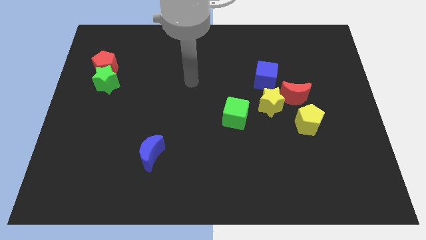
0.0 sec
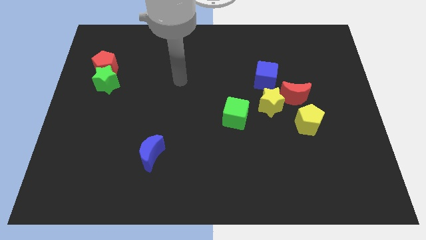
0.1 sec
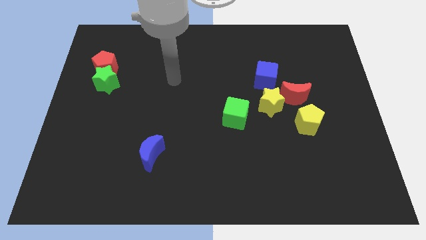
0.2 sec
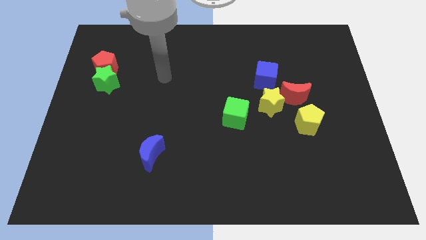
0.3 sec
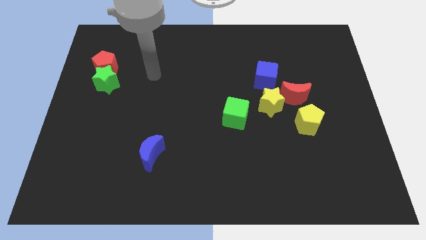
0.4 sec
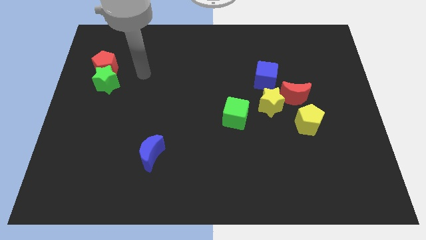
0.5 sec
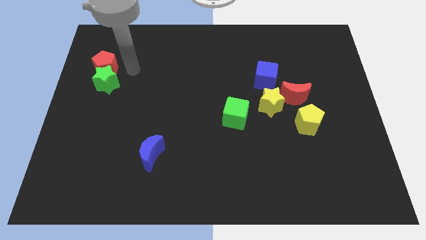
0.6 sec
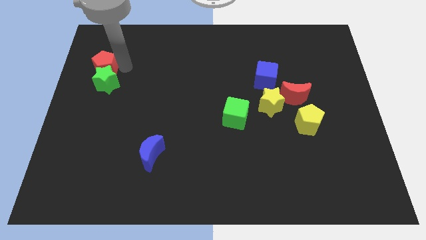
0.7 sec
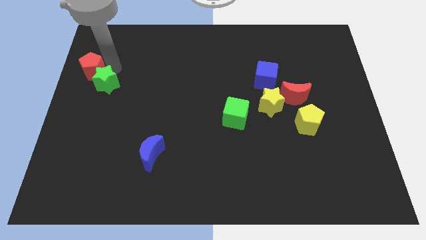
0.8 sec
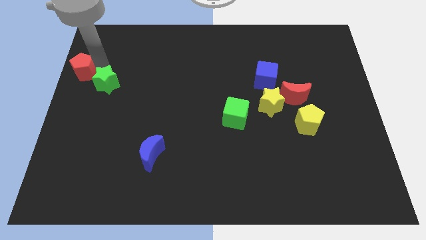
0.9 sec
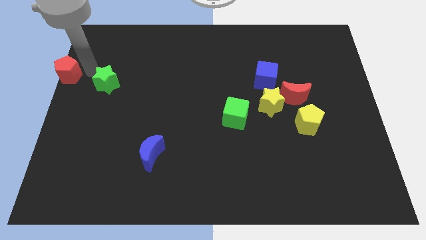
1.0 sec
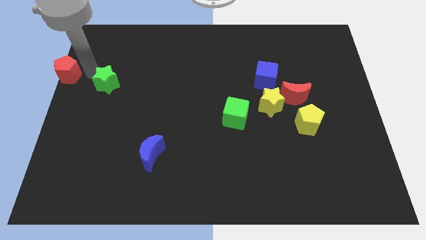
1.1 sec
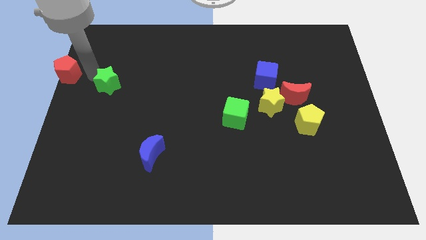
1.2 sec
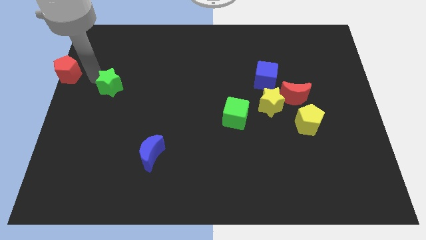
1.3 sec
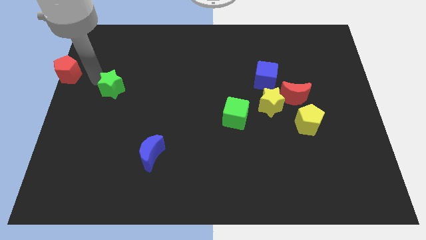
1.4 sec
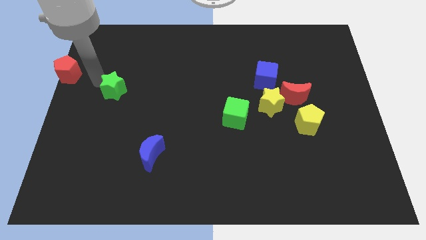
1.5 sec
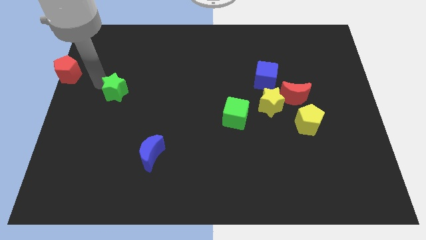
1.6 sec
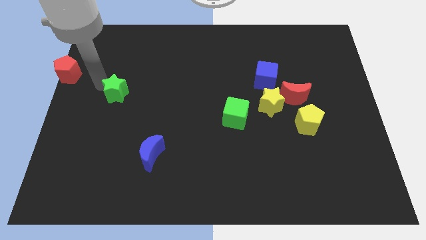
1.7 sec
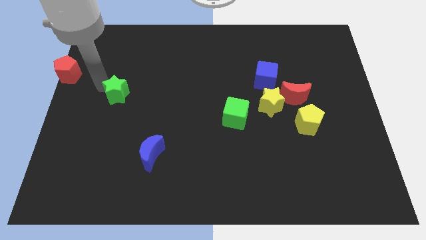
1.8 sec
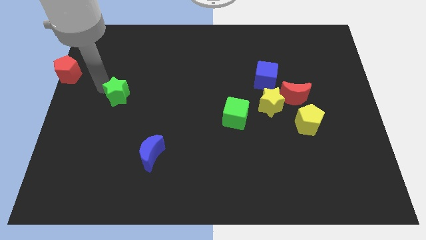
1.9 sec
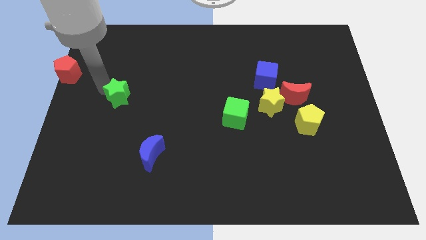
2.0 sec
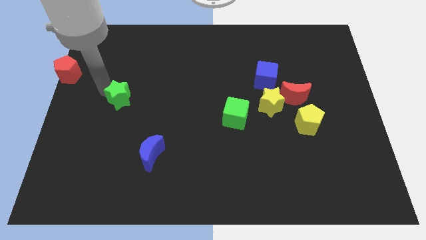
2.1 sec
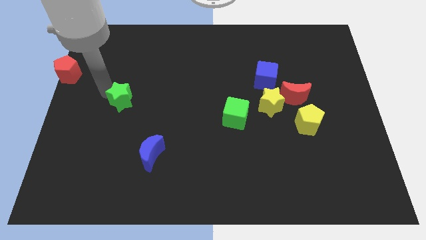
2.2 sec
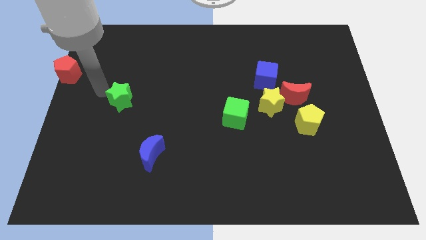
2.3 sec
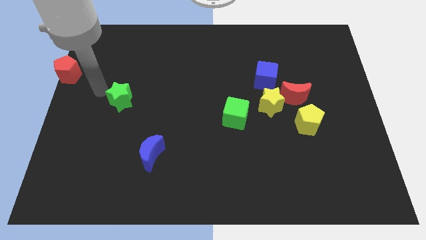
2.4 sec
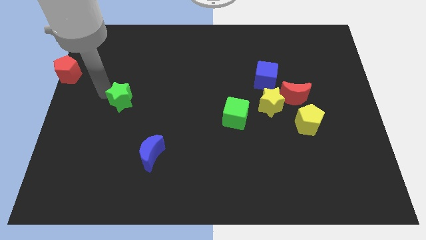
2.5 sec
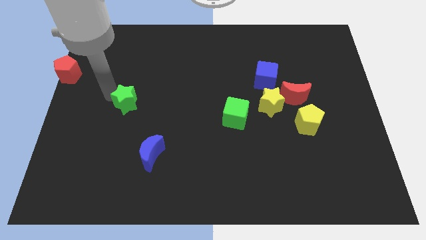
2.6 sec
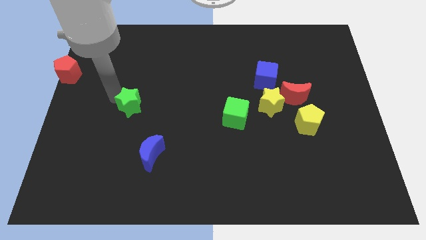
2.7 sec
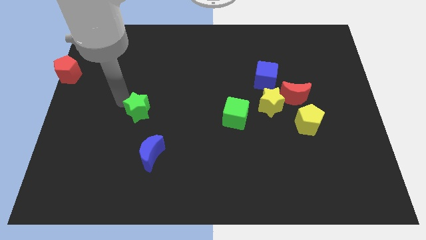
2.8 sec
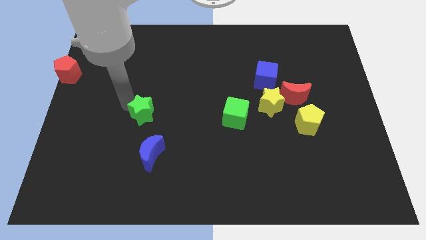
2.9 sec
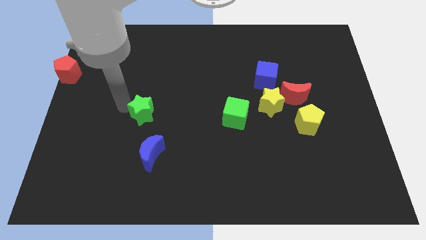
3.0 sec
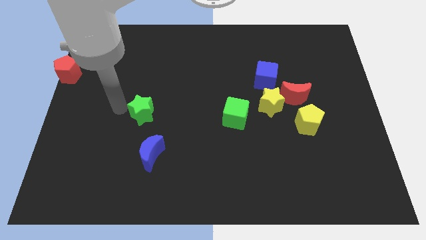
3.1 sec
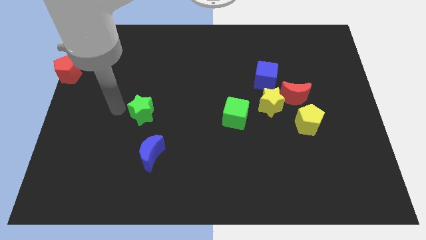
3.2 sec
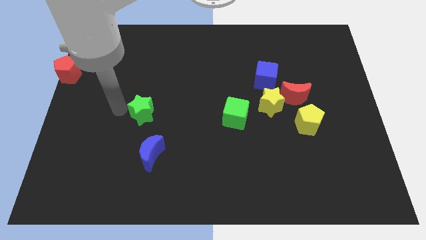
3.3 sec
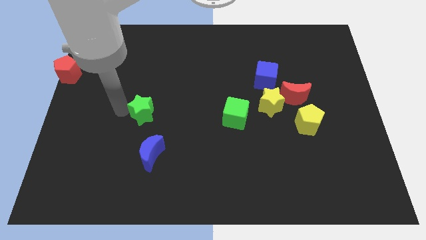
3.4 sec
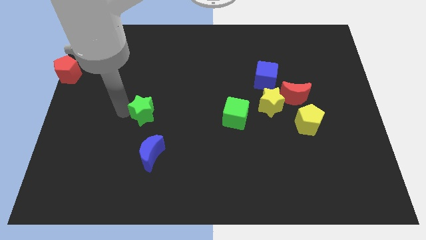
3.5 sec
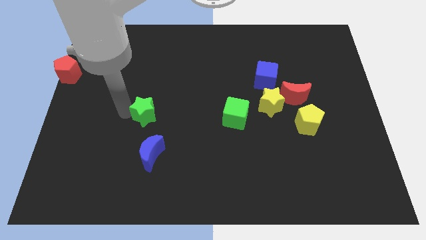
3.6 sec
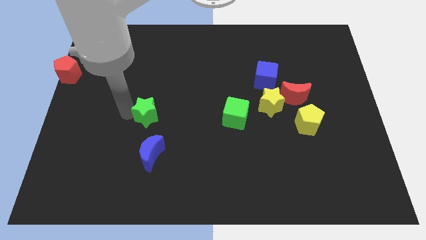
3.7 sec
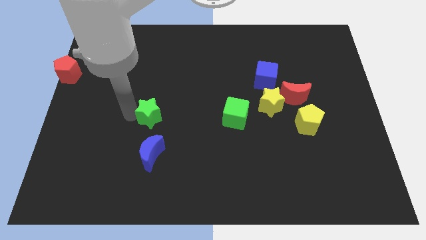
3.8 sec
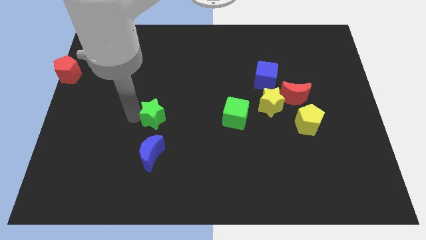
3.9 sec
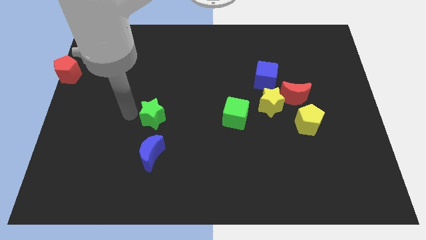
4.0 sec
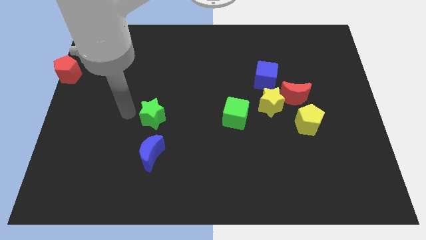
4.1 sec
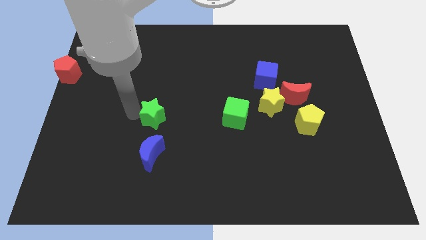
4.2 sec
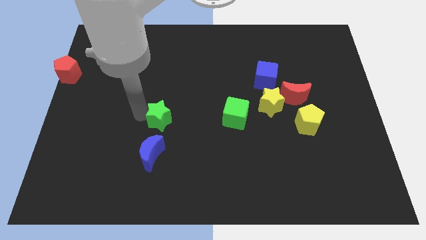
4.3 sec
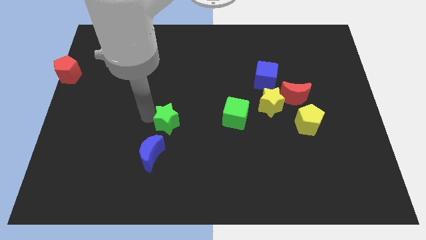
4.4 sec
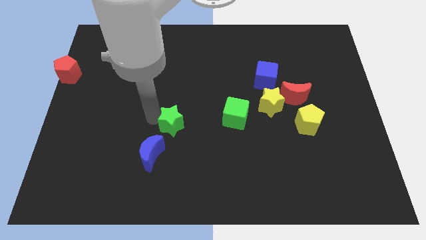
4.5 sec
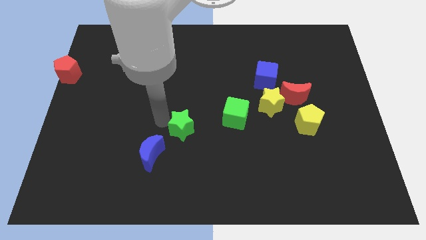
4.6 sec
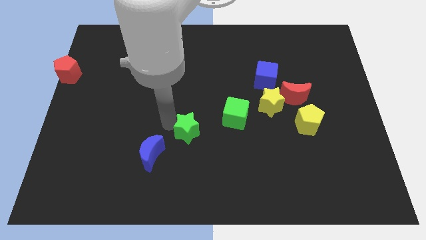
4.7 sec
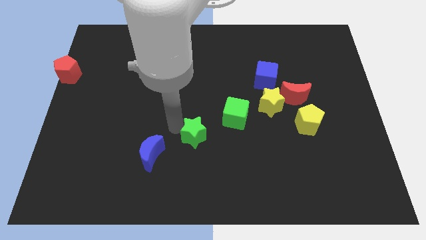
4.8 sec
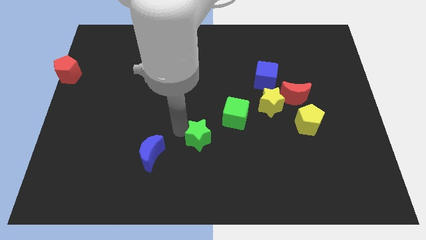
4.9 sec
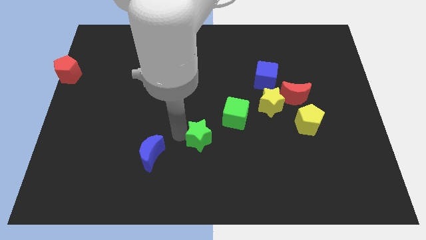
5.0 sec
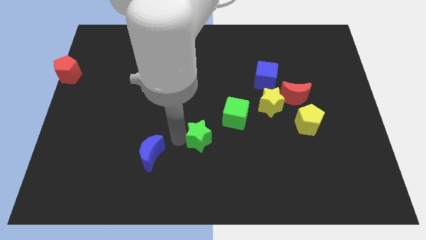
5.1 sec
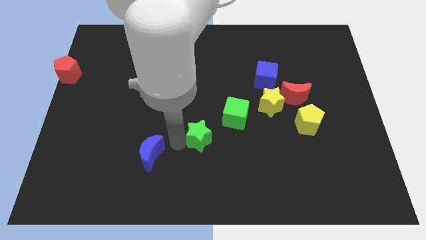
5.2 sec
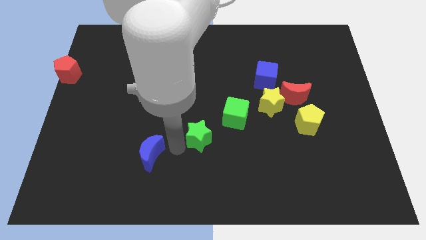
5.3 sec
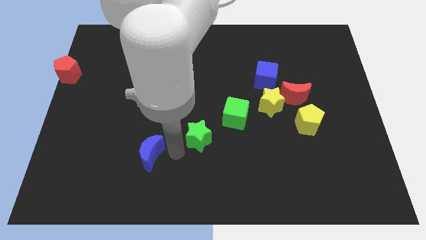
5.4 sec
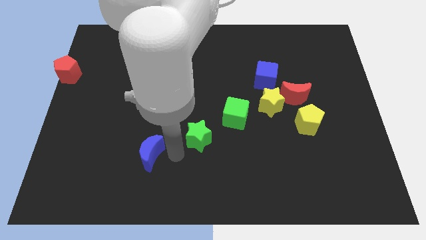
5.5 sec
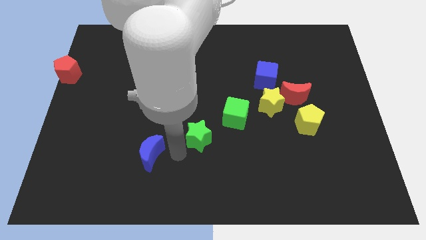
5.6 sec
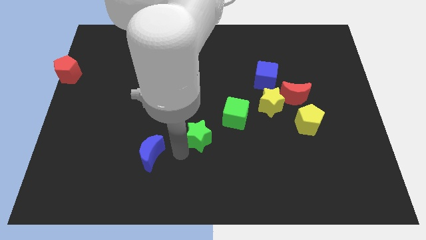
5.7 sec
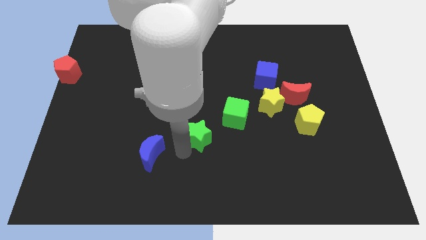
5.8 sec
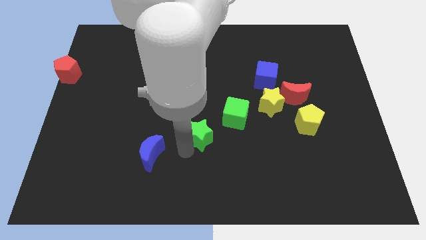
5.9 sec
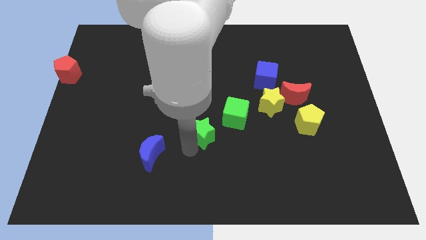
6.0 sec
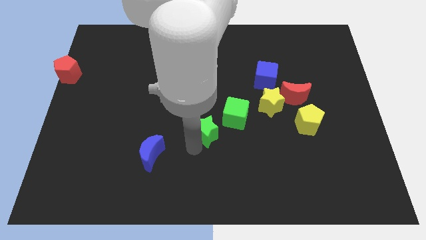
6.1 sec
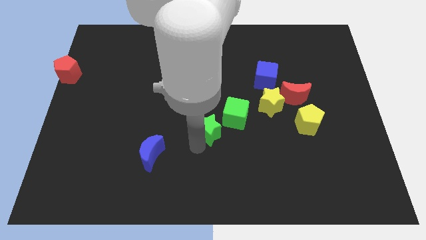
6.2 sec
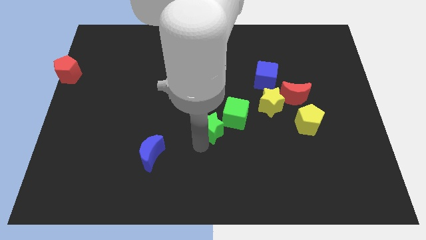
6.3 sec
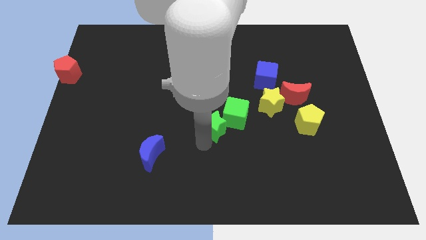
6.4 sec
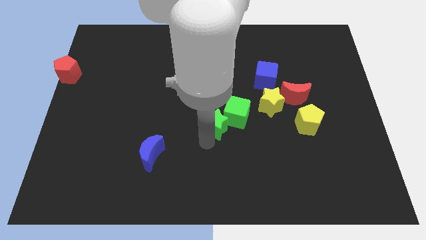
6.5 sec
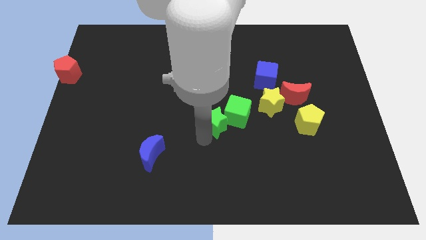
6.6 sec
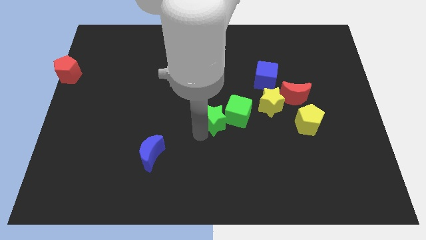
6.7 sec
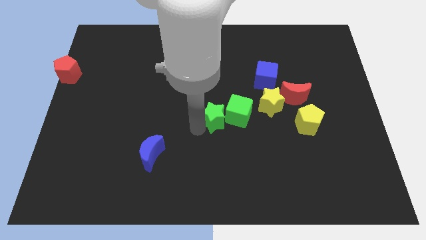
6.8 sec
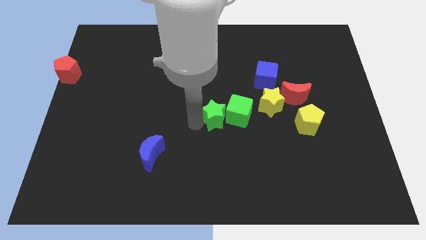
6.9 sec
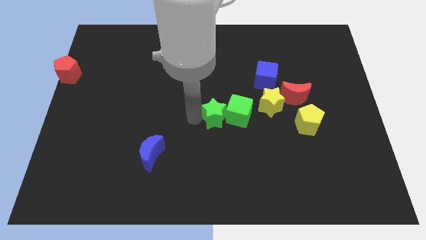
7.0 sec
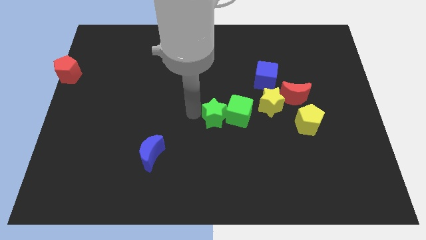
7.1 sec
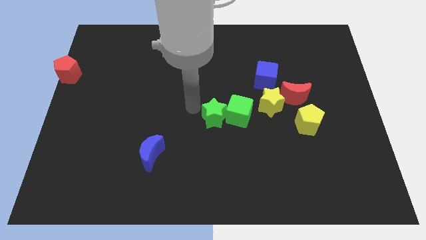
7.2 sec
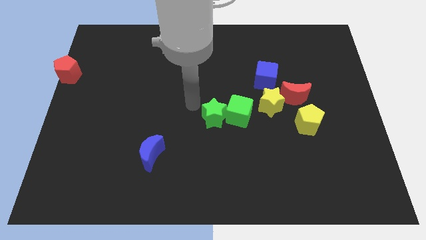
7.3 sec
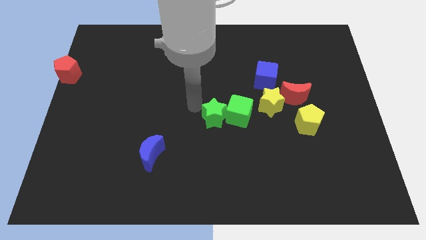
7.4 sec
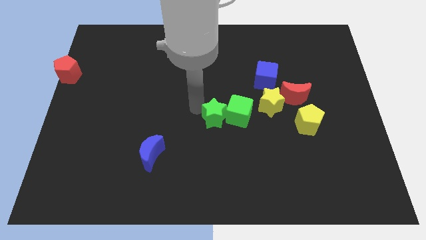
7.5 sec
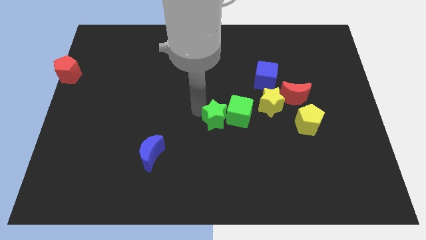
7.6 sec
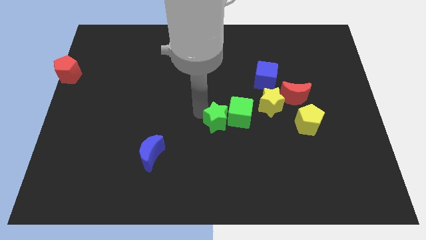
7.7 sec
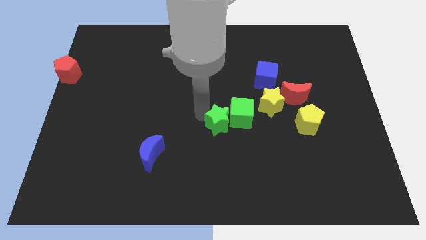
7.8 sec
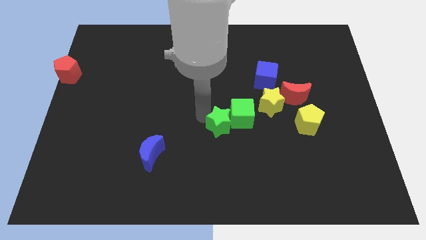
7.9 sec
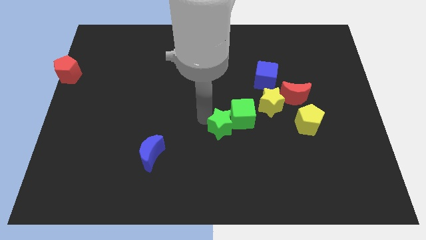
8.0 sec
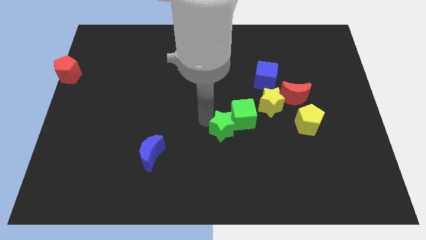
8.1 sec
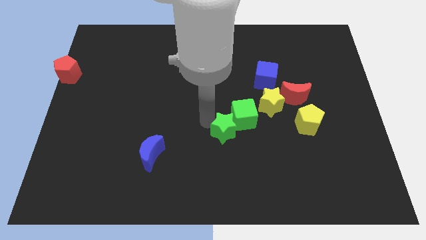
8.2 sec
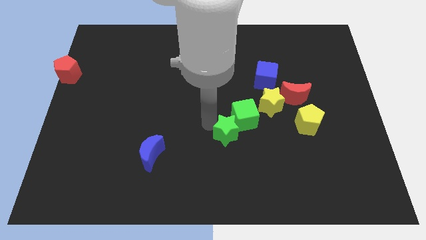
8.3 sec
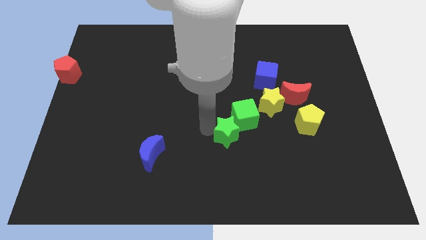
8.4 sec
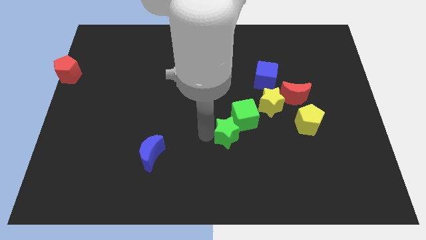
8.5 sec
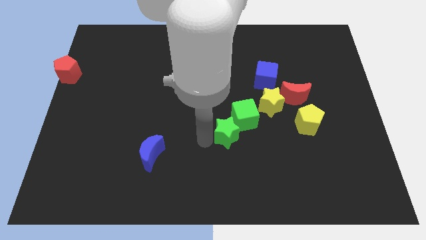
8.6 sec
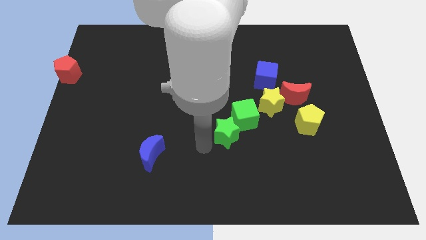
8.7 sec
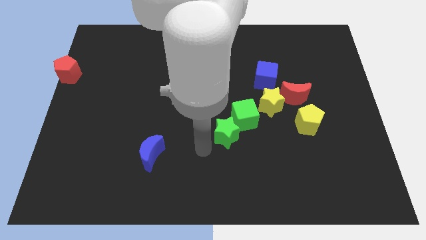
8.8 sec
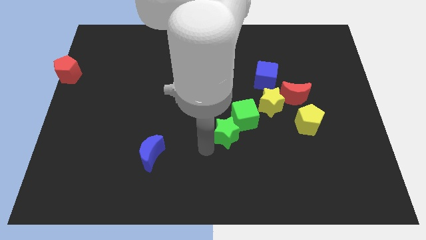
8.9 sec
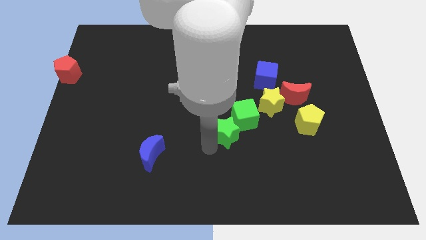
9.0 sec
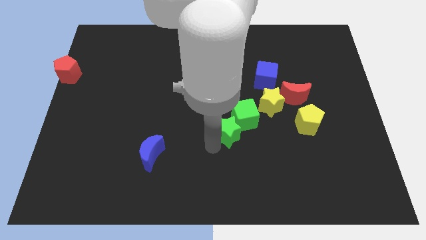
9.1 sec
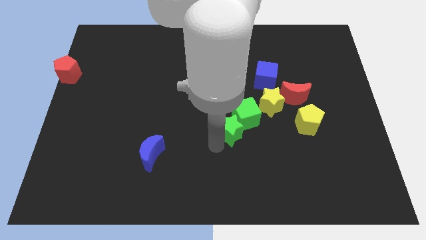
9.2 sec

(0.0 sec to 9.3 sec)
slide the green star to the bottom left of the yellow star
